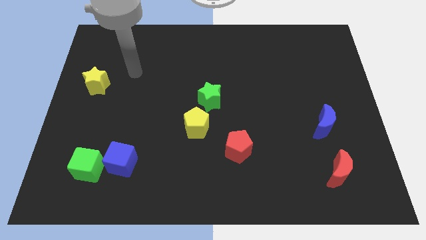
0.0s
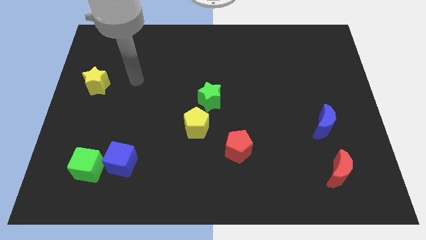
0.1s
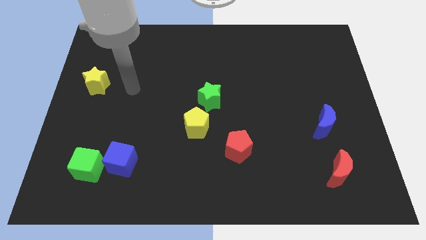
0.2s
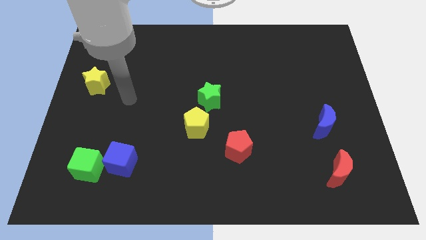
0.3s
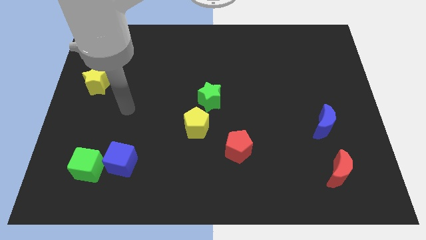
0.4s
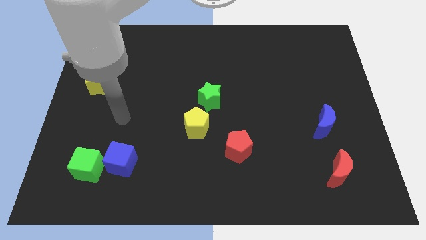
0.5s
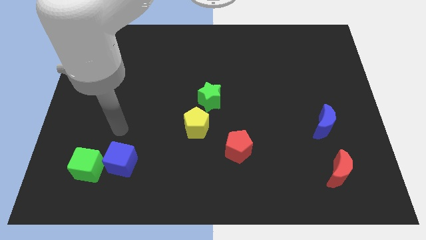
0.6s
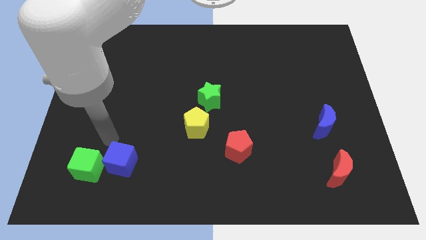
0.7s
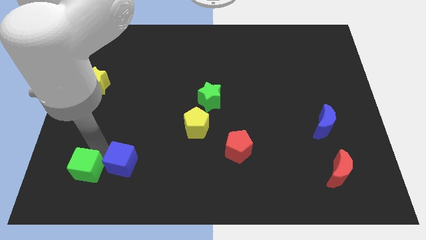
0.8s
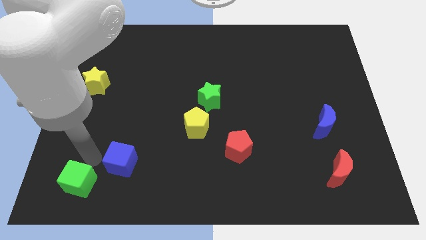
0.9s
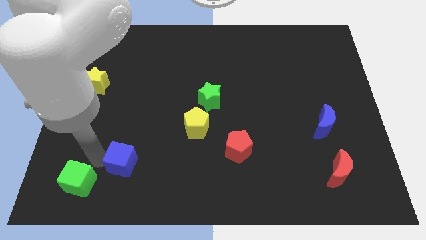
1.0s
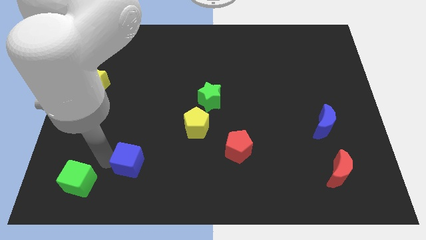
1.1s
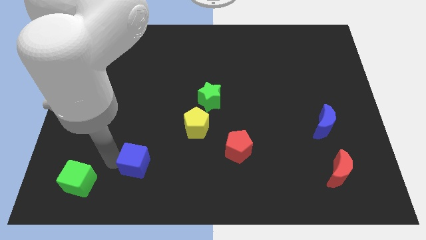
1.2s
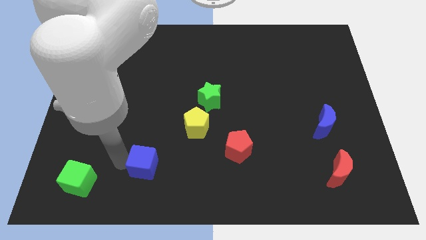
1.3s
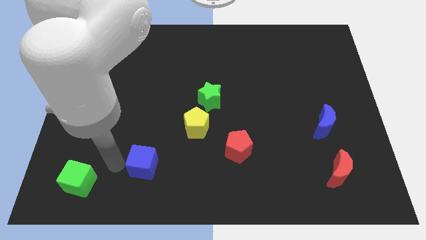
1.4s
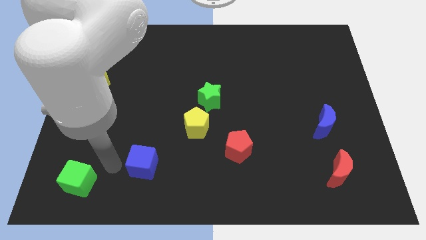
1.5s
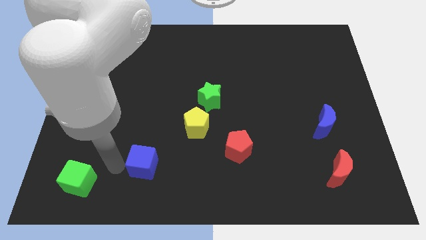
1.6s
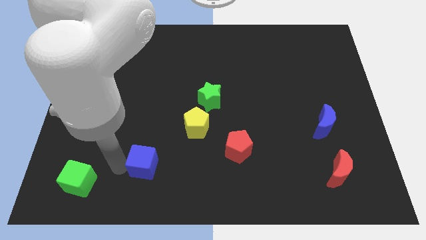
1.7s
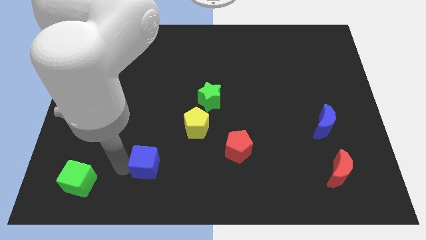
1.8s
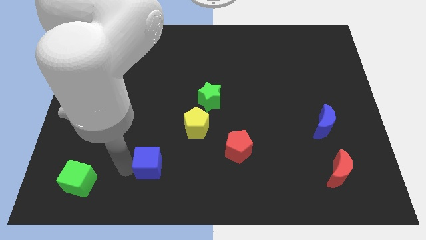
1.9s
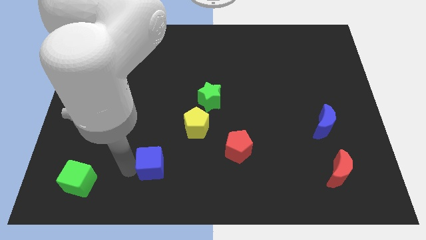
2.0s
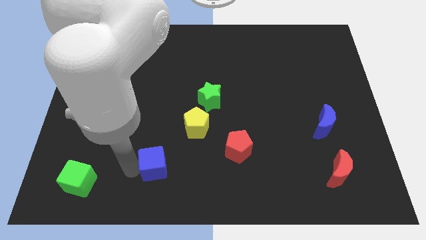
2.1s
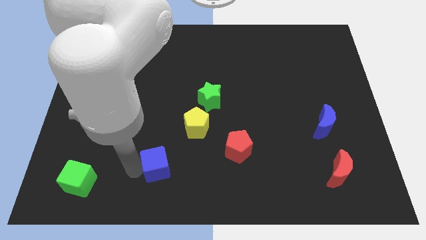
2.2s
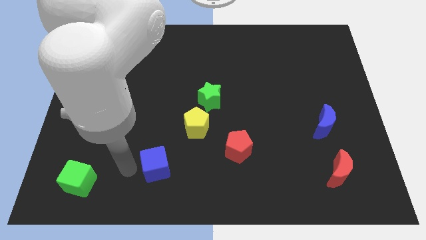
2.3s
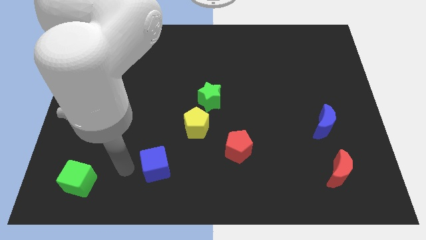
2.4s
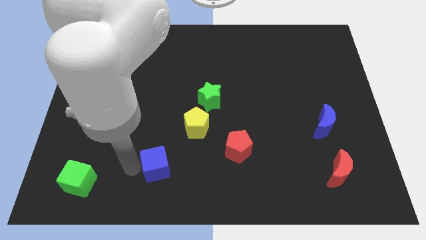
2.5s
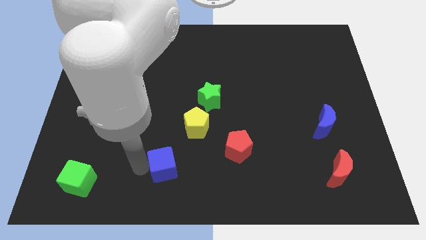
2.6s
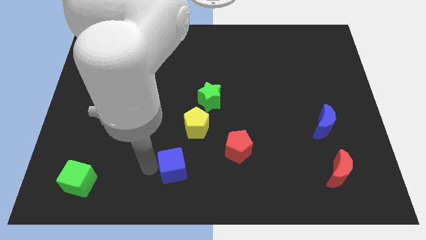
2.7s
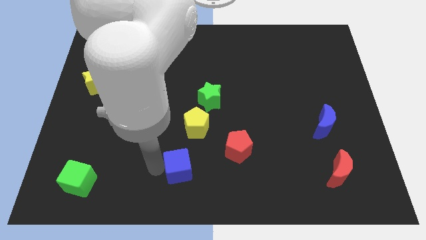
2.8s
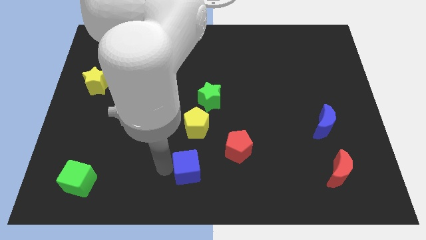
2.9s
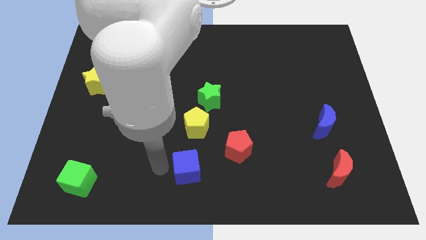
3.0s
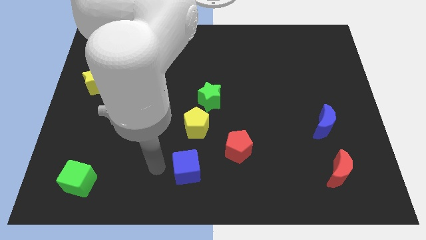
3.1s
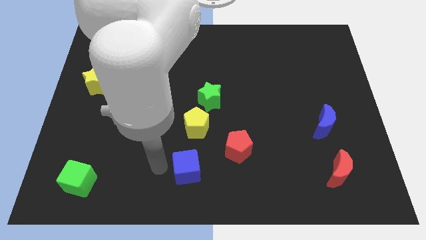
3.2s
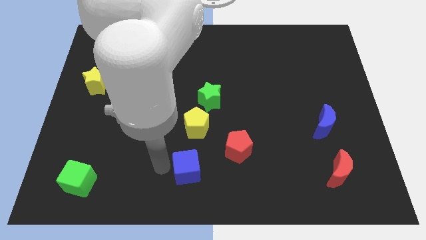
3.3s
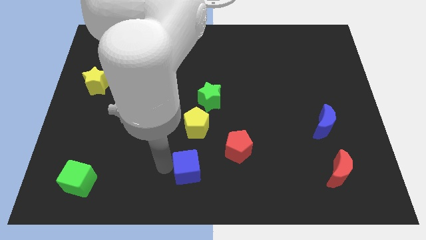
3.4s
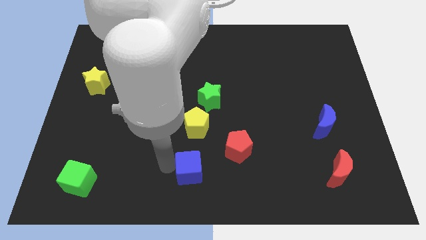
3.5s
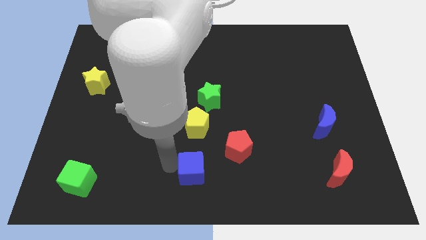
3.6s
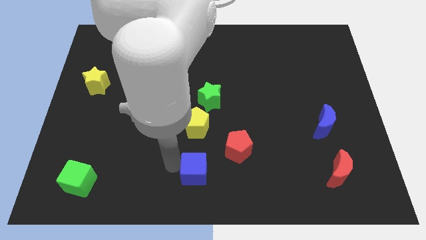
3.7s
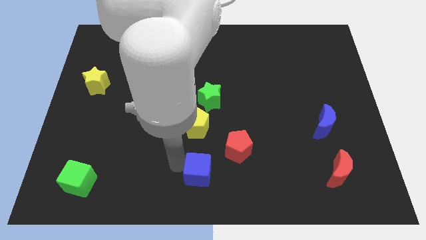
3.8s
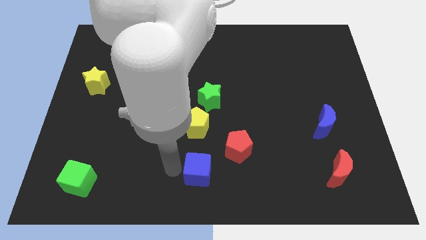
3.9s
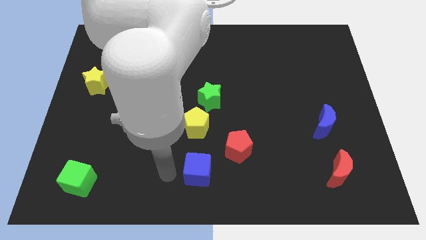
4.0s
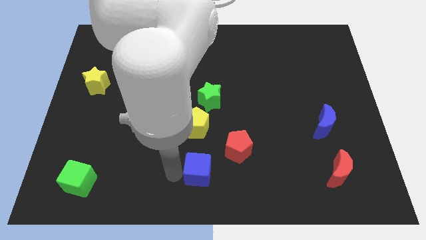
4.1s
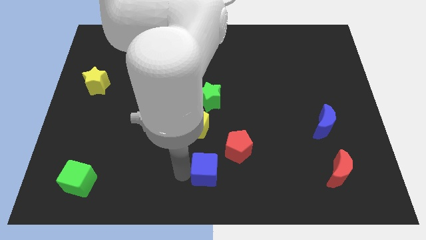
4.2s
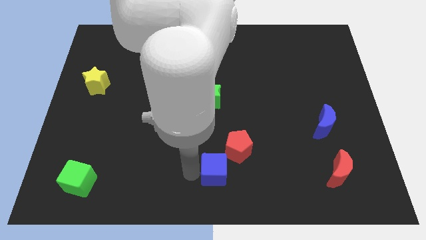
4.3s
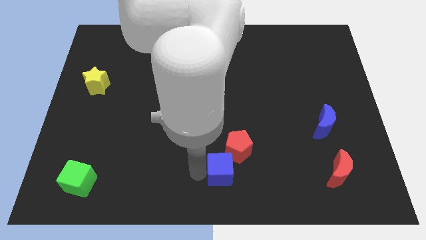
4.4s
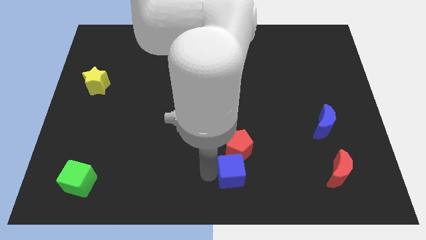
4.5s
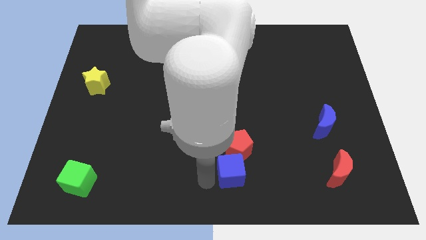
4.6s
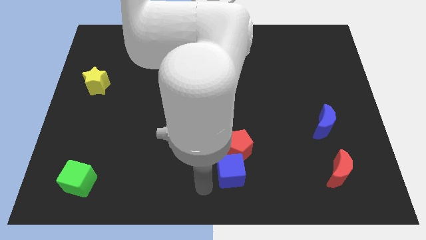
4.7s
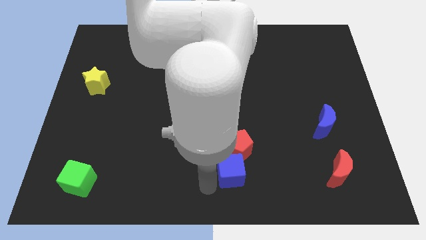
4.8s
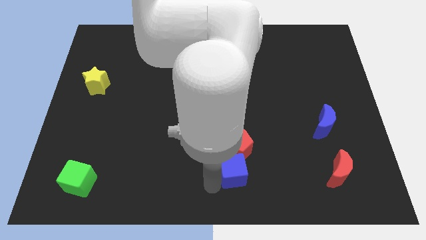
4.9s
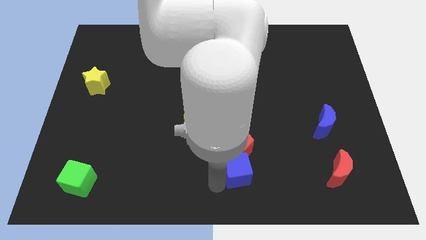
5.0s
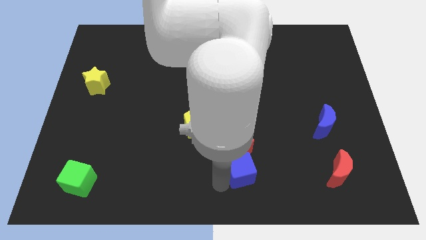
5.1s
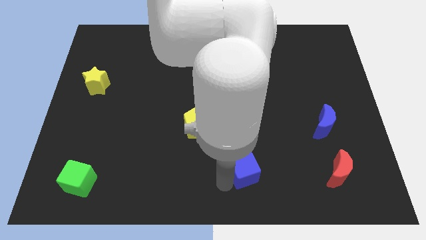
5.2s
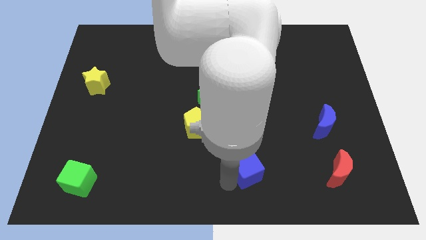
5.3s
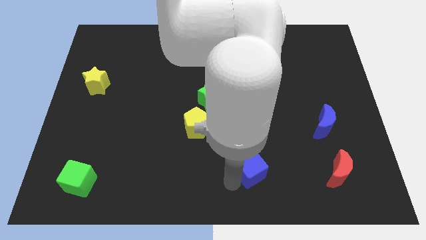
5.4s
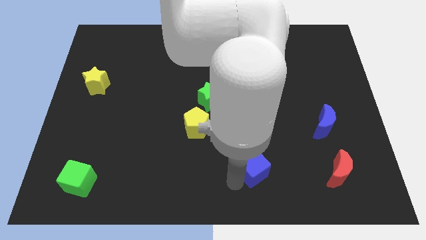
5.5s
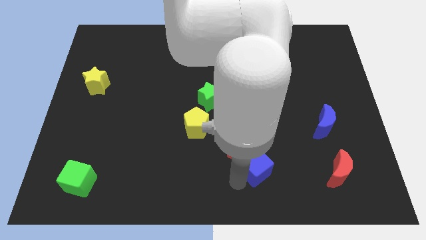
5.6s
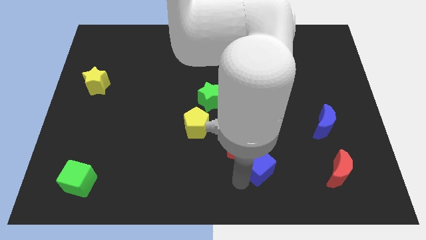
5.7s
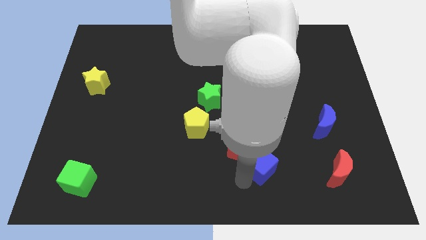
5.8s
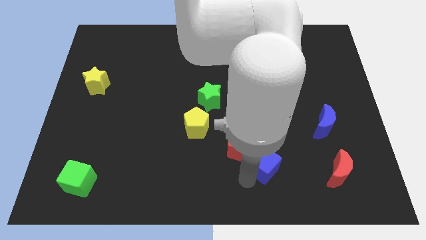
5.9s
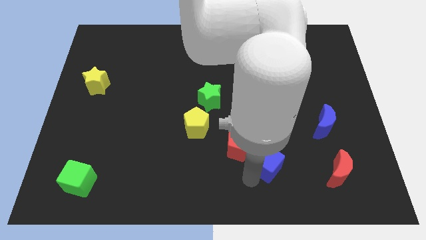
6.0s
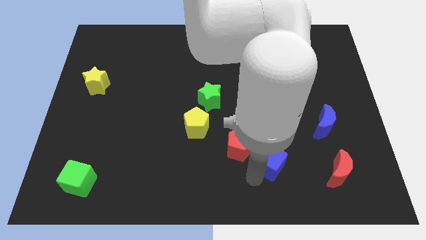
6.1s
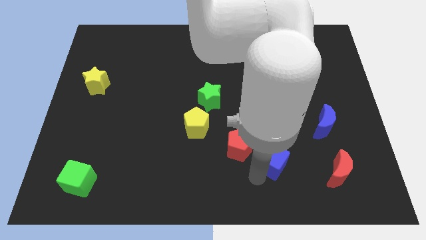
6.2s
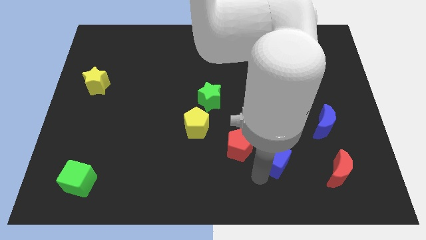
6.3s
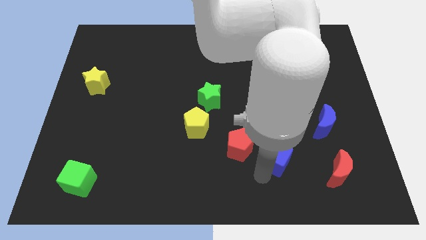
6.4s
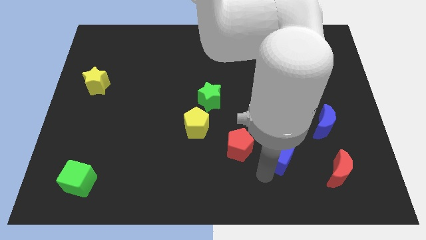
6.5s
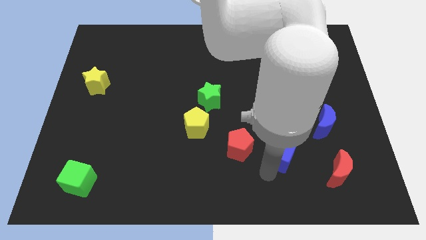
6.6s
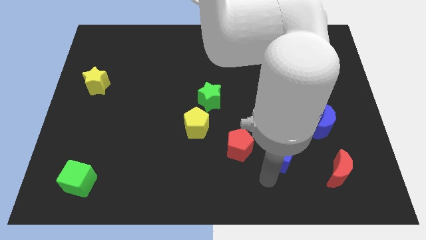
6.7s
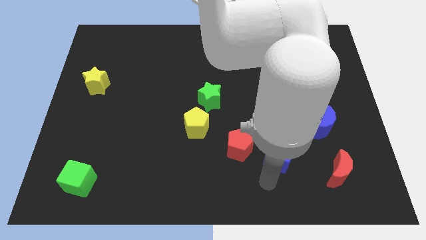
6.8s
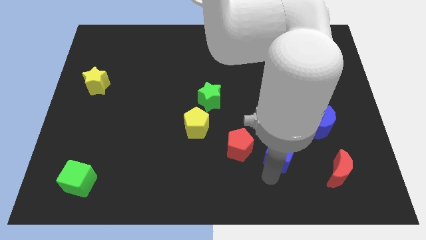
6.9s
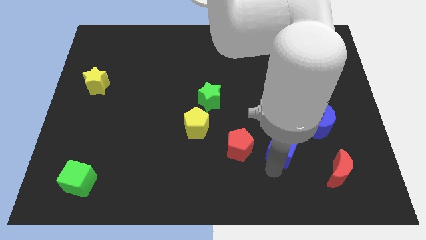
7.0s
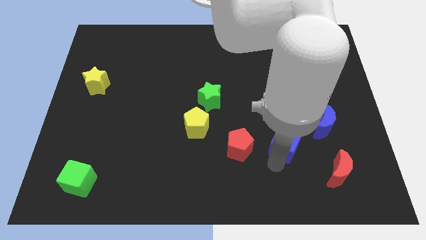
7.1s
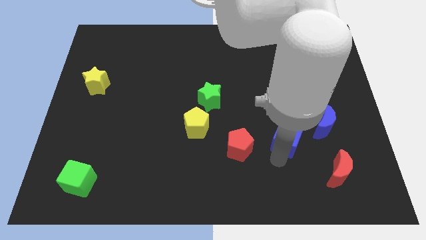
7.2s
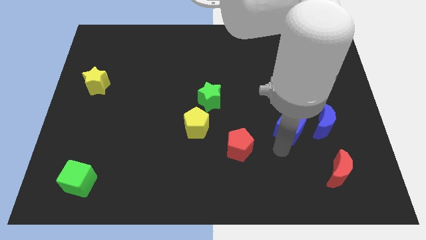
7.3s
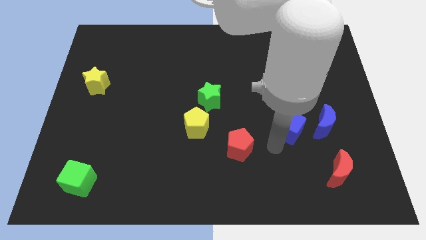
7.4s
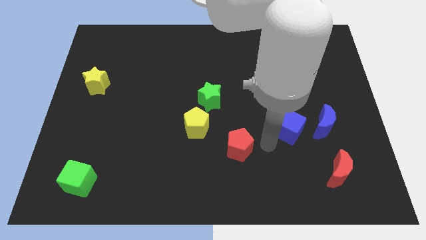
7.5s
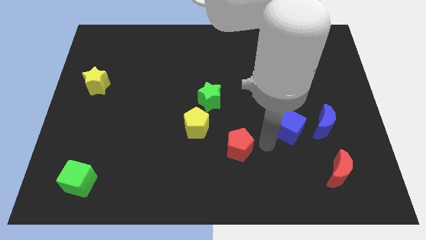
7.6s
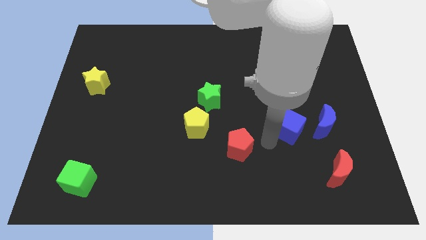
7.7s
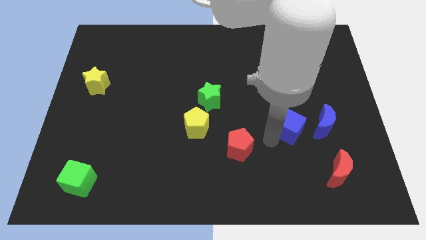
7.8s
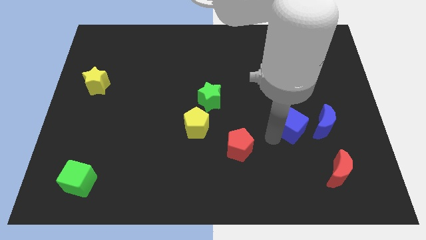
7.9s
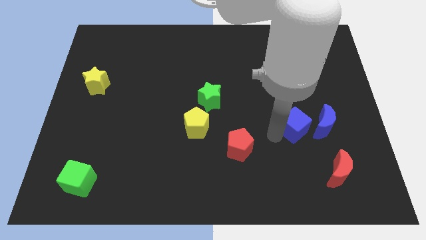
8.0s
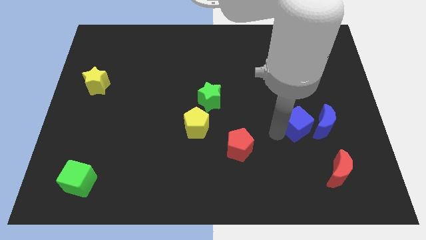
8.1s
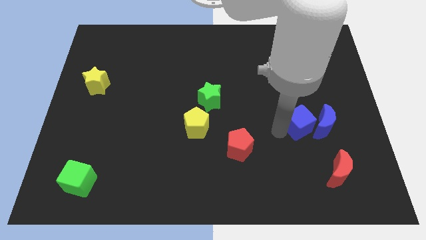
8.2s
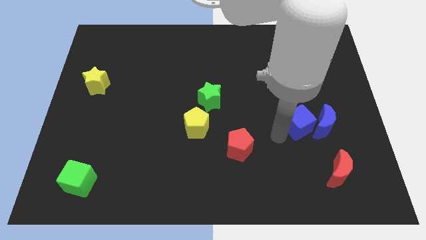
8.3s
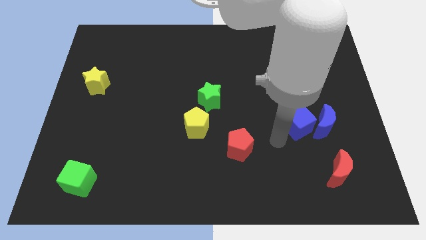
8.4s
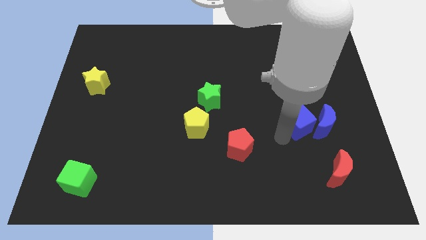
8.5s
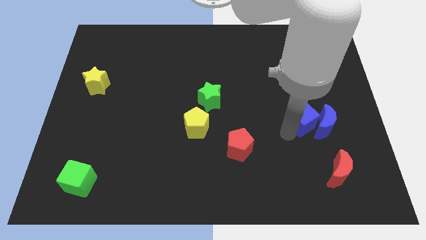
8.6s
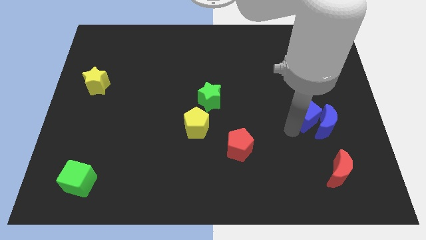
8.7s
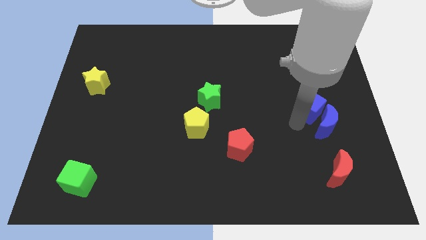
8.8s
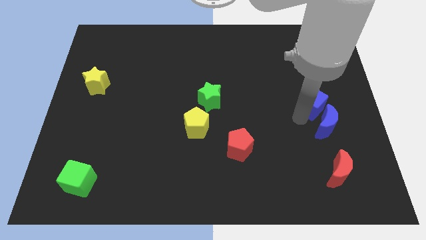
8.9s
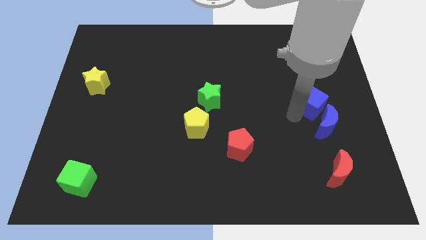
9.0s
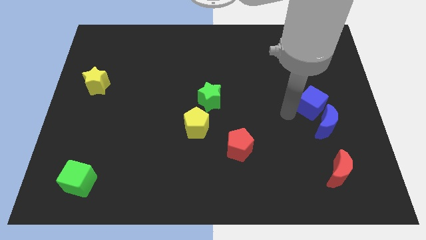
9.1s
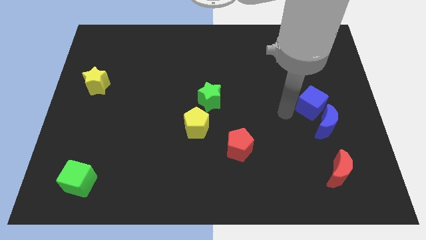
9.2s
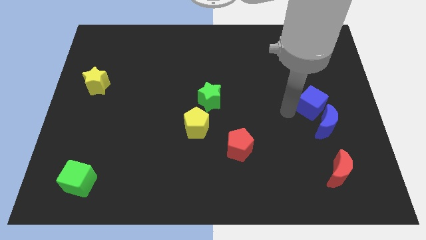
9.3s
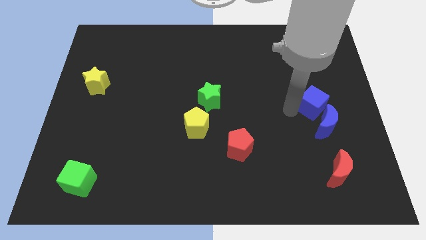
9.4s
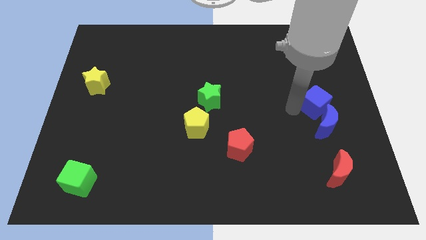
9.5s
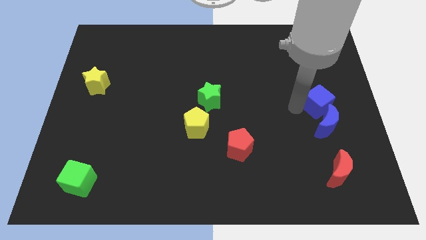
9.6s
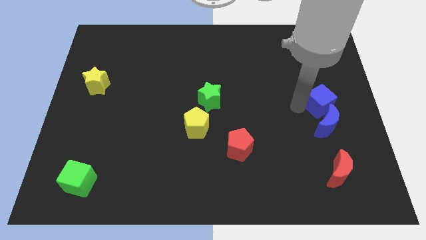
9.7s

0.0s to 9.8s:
slide the blue cube to the right side of the board
